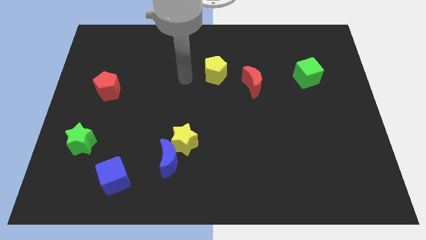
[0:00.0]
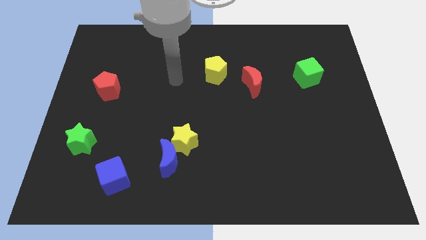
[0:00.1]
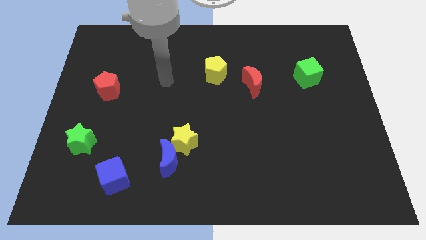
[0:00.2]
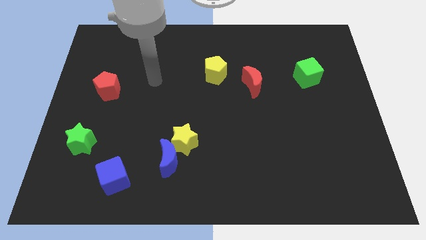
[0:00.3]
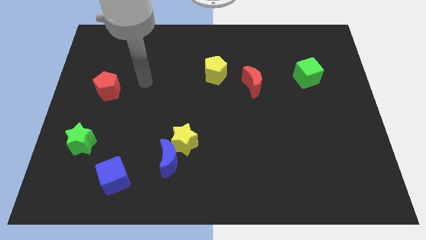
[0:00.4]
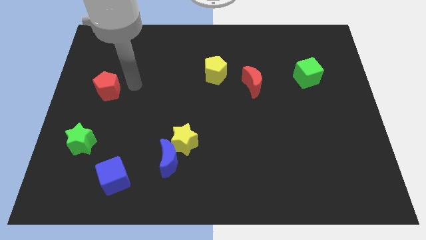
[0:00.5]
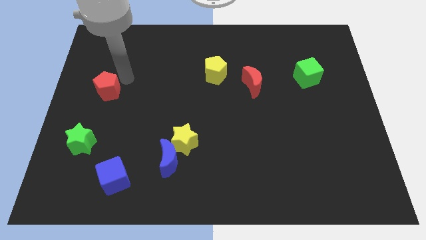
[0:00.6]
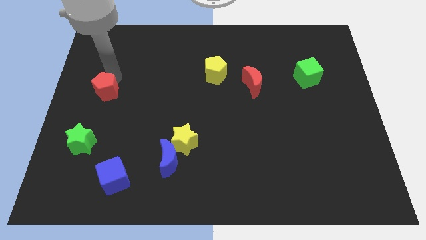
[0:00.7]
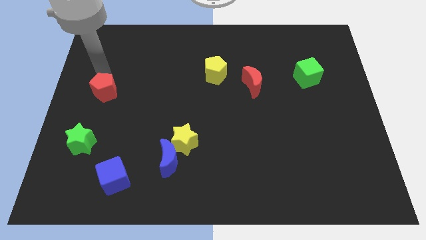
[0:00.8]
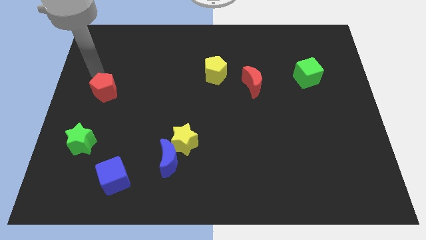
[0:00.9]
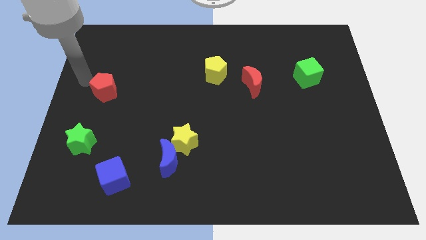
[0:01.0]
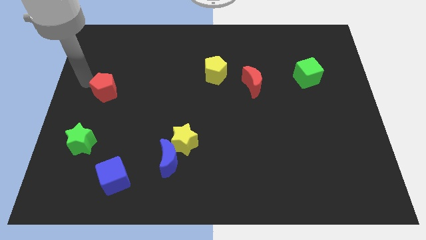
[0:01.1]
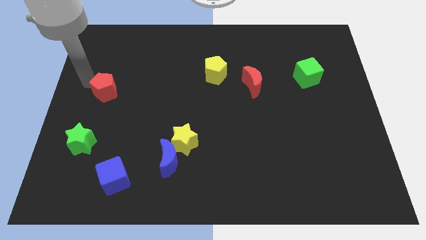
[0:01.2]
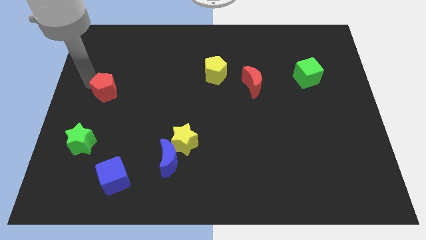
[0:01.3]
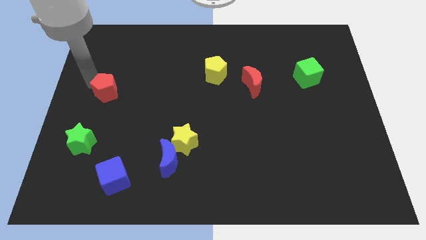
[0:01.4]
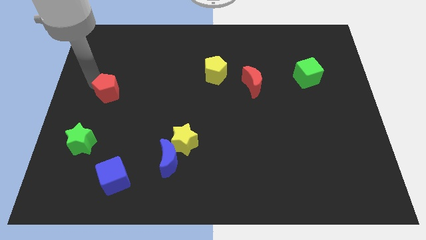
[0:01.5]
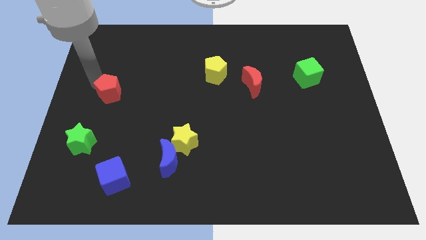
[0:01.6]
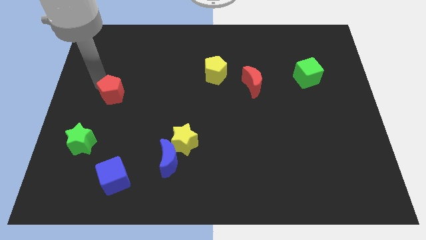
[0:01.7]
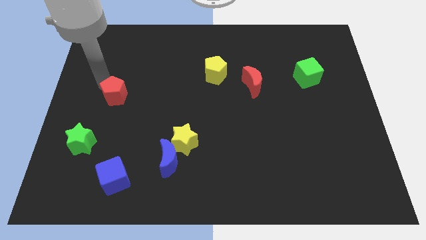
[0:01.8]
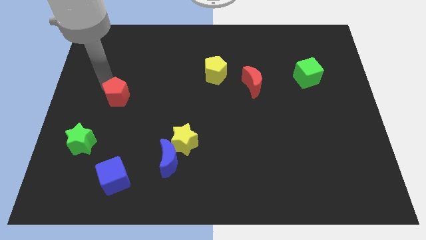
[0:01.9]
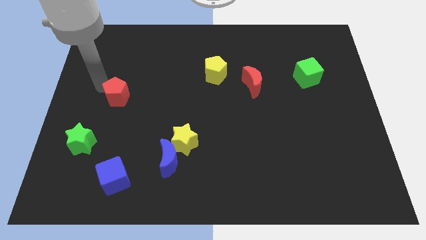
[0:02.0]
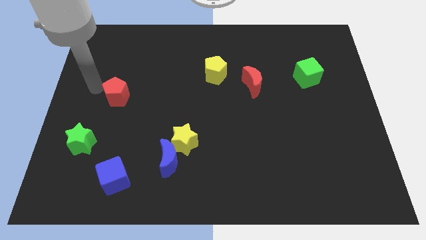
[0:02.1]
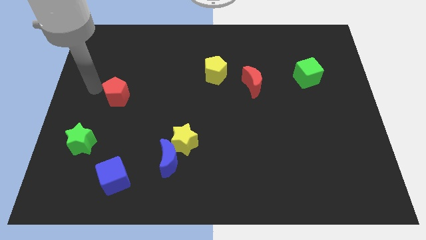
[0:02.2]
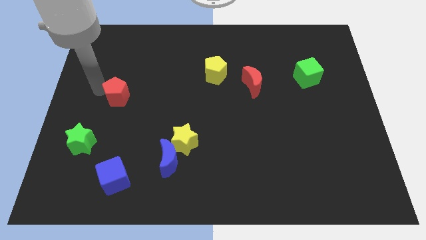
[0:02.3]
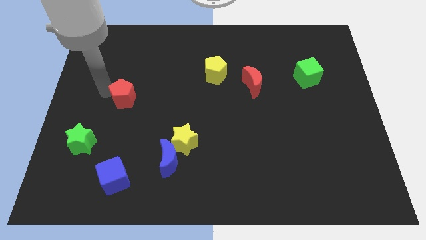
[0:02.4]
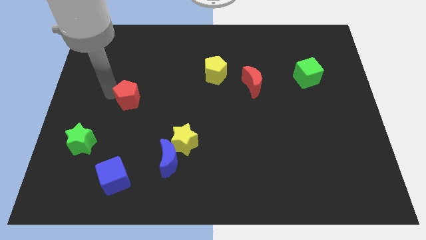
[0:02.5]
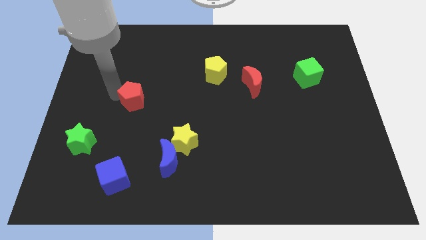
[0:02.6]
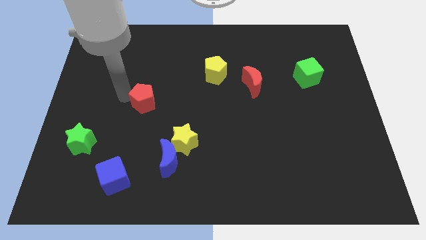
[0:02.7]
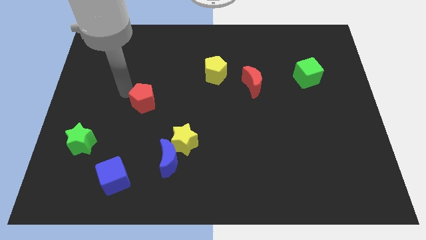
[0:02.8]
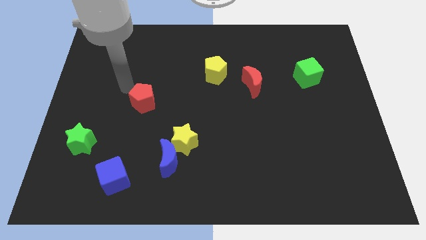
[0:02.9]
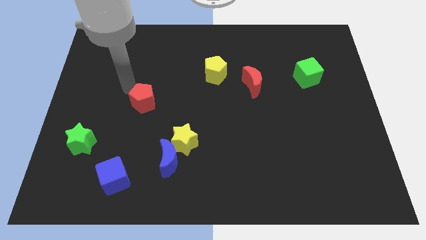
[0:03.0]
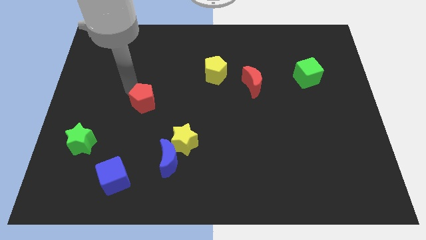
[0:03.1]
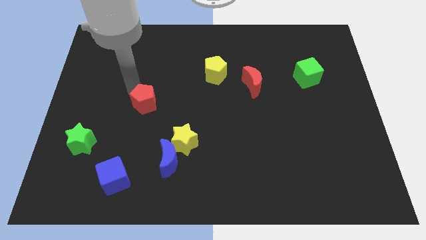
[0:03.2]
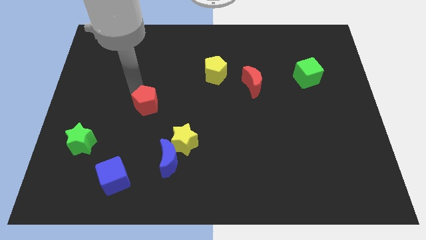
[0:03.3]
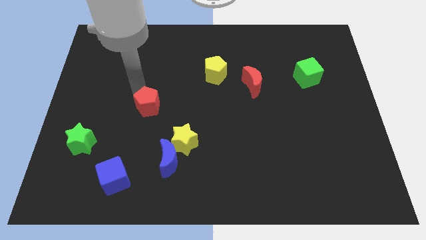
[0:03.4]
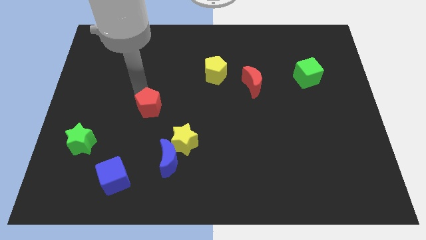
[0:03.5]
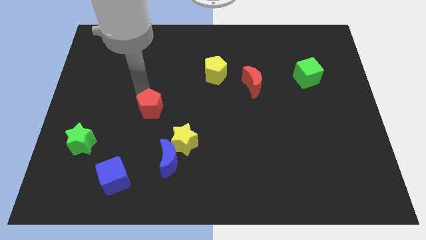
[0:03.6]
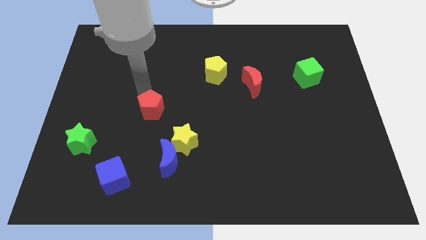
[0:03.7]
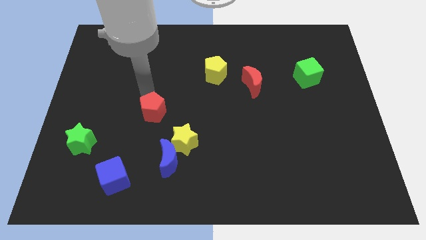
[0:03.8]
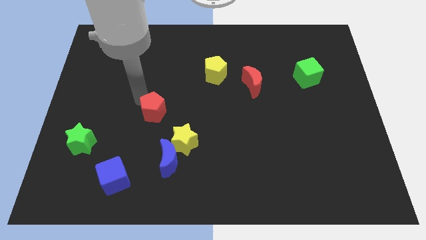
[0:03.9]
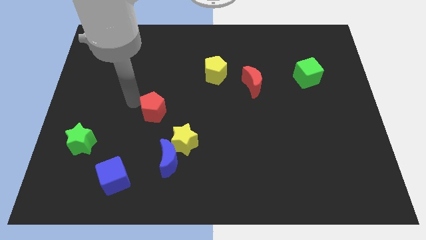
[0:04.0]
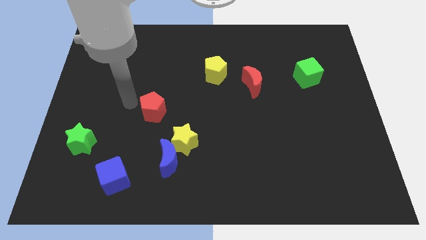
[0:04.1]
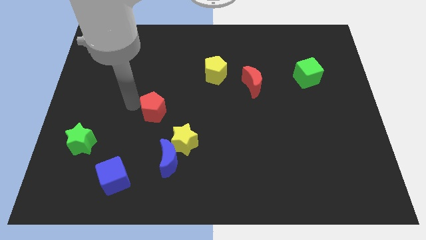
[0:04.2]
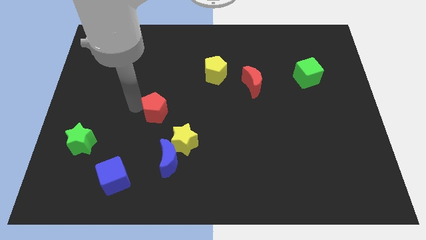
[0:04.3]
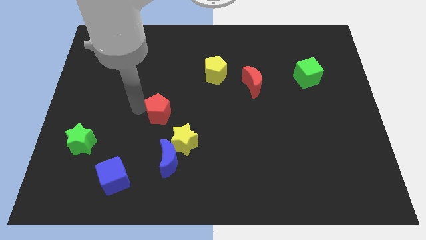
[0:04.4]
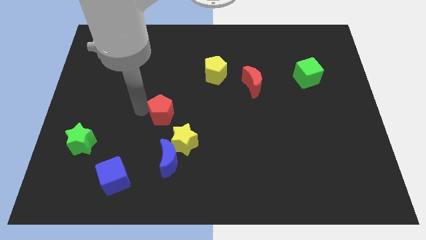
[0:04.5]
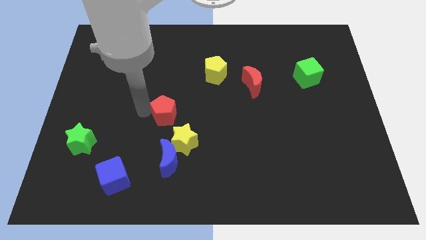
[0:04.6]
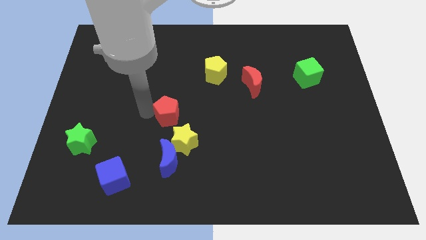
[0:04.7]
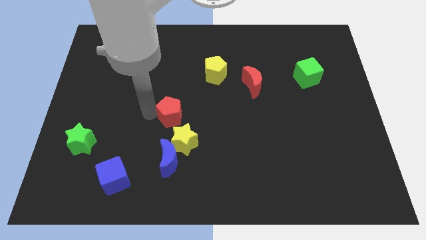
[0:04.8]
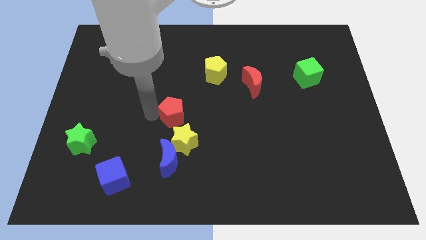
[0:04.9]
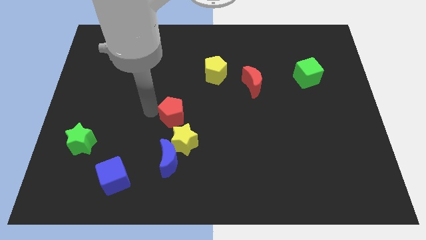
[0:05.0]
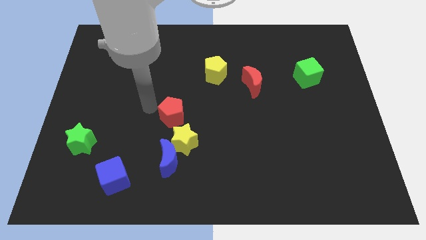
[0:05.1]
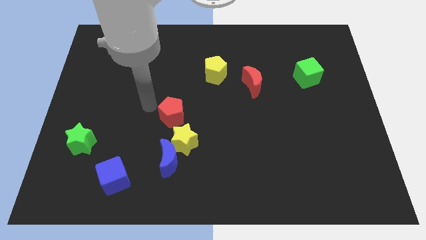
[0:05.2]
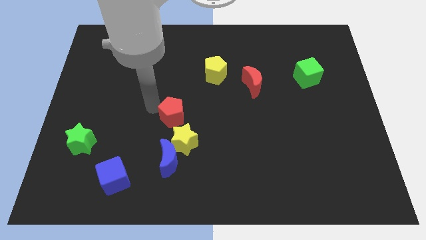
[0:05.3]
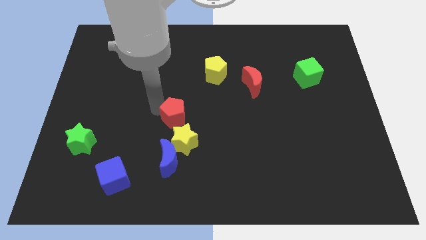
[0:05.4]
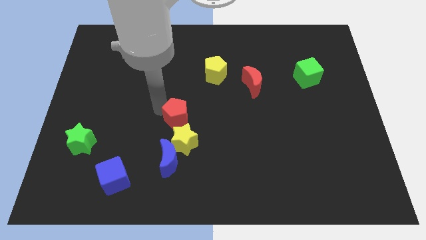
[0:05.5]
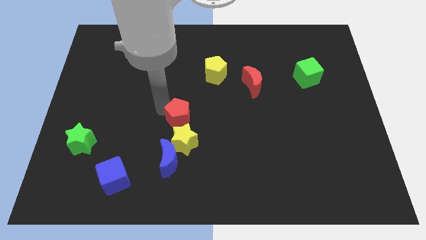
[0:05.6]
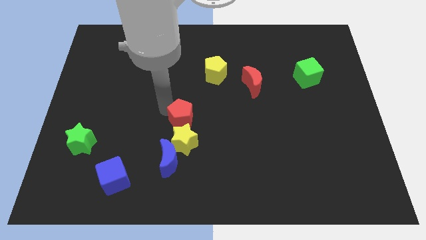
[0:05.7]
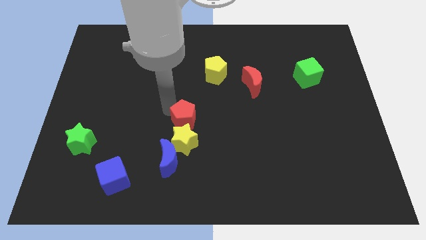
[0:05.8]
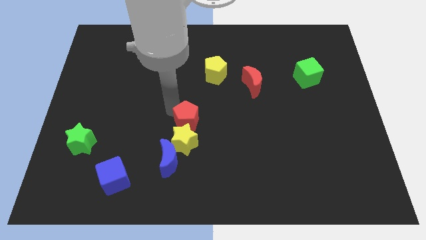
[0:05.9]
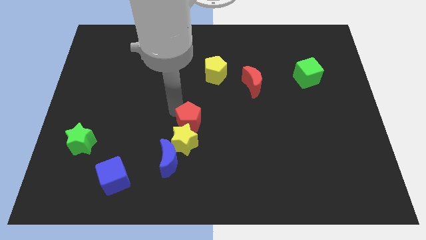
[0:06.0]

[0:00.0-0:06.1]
slide the red pentagon diagonally up and to the right of the blue moon
